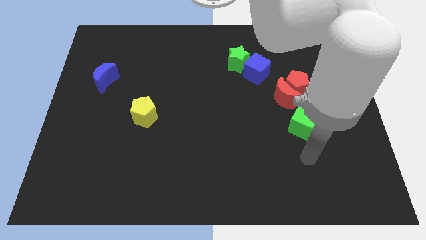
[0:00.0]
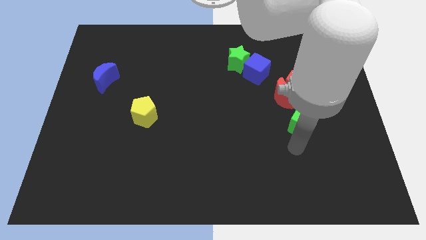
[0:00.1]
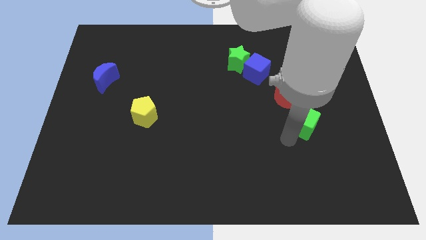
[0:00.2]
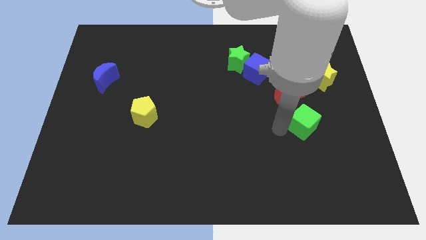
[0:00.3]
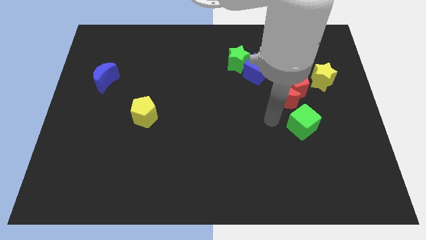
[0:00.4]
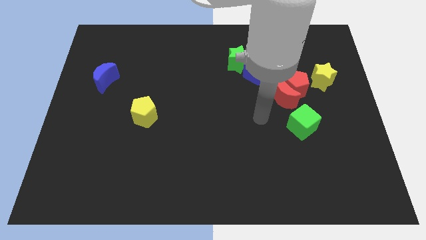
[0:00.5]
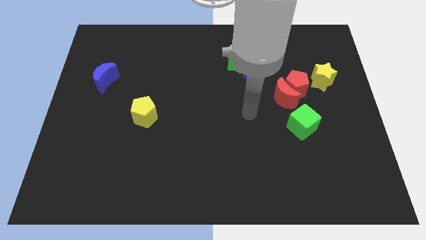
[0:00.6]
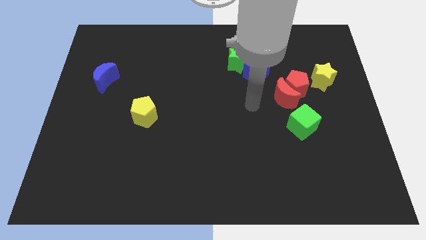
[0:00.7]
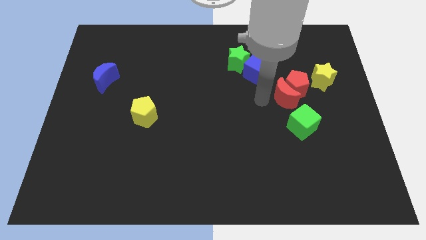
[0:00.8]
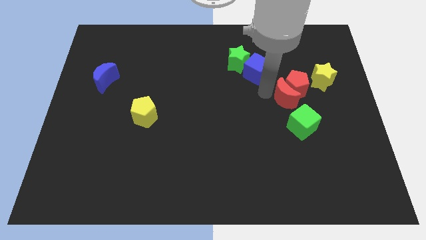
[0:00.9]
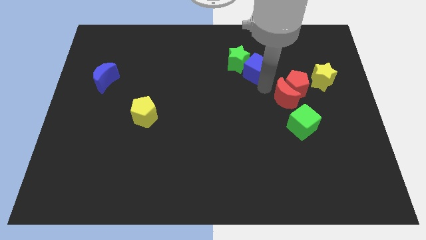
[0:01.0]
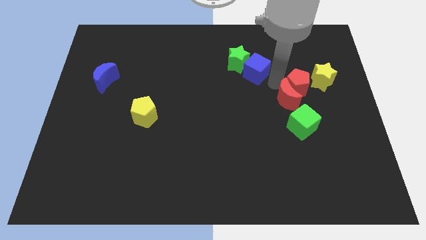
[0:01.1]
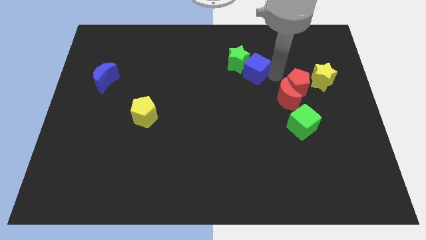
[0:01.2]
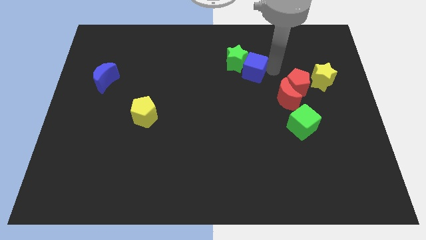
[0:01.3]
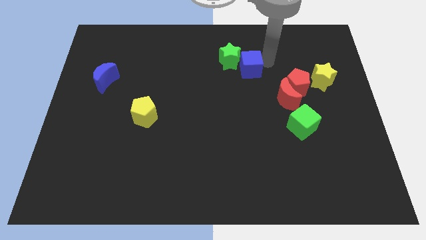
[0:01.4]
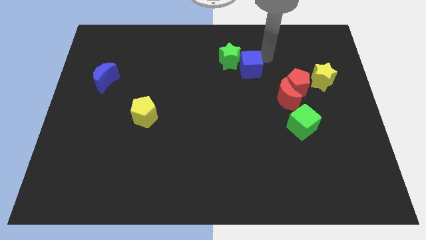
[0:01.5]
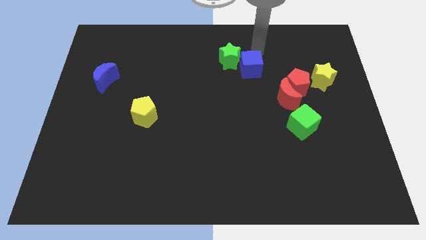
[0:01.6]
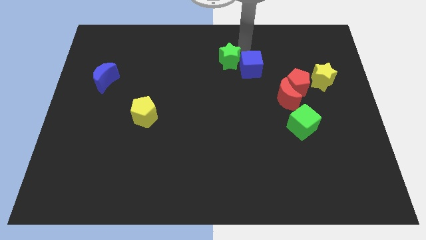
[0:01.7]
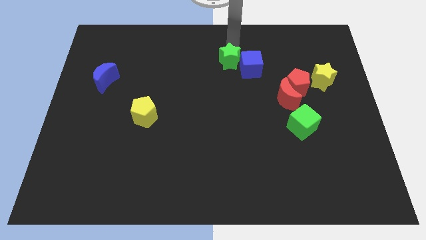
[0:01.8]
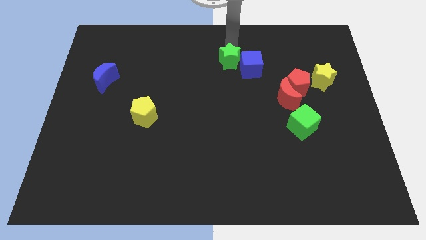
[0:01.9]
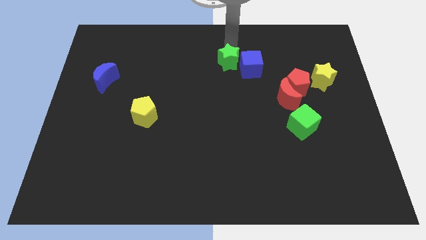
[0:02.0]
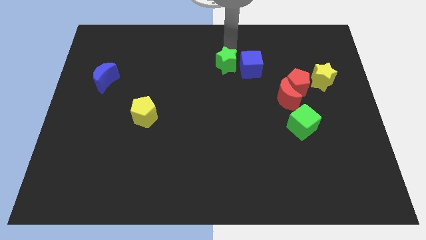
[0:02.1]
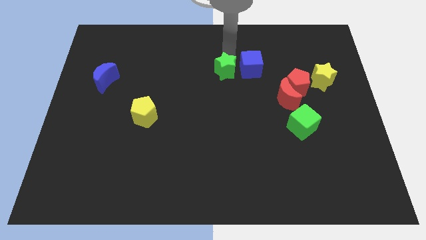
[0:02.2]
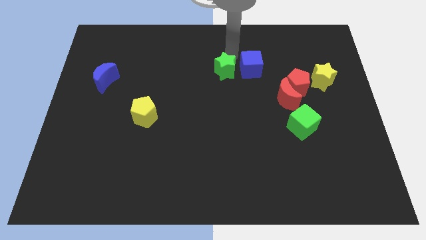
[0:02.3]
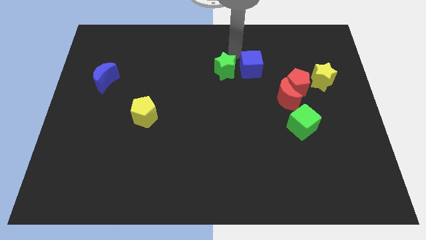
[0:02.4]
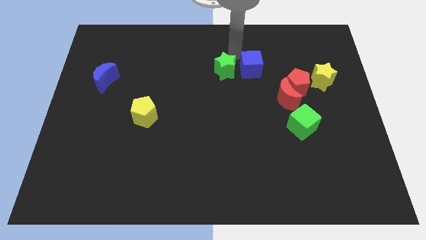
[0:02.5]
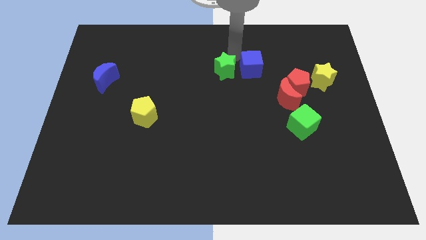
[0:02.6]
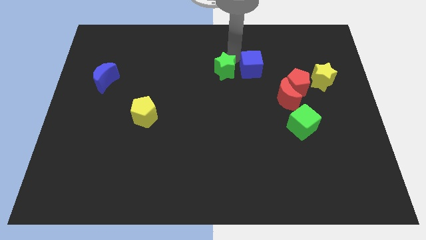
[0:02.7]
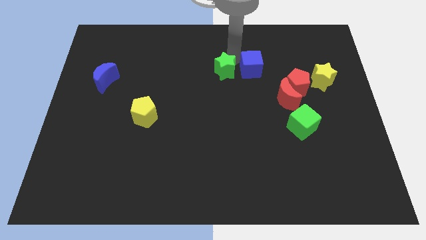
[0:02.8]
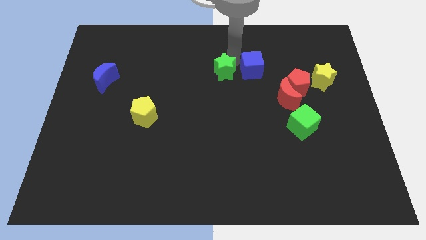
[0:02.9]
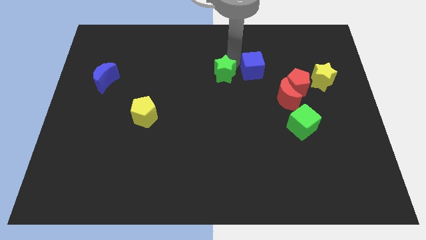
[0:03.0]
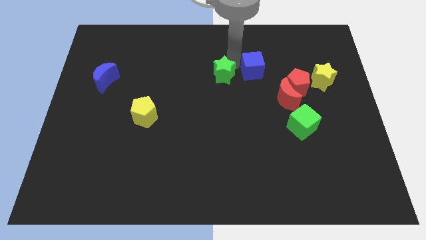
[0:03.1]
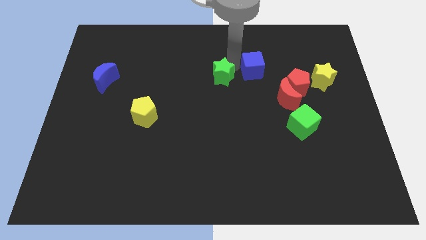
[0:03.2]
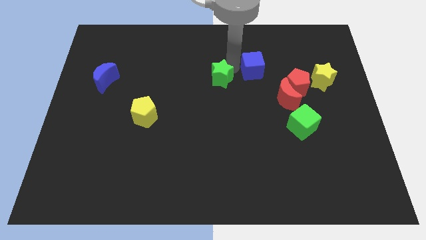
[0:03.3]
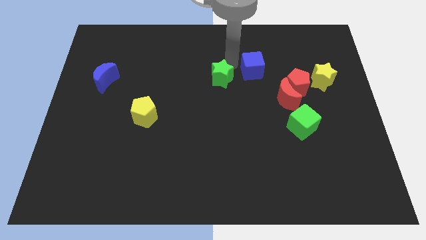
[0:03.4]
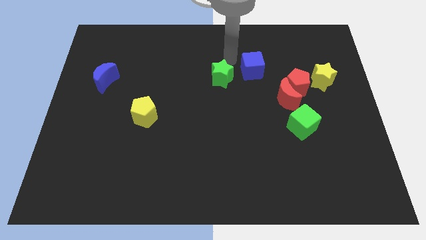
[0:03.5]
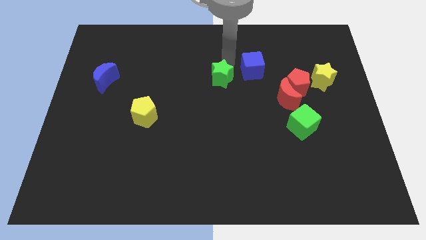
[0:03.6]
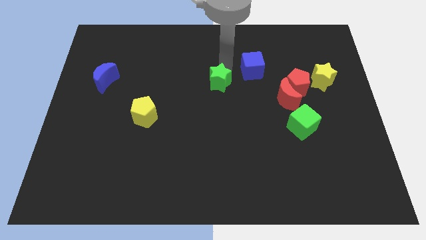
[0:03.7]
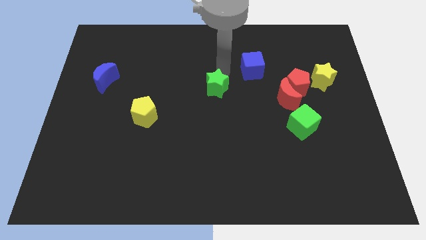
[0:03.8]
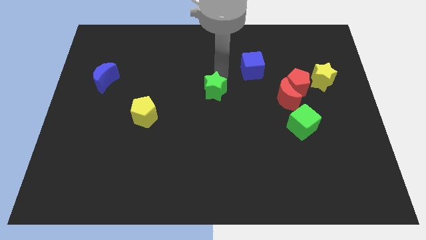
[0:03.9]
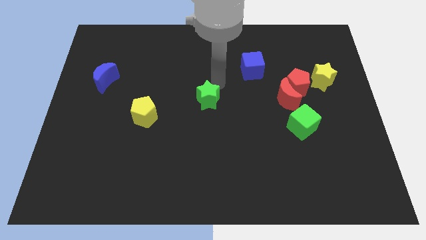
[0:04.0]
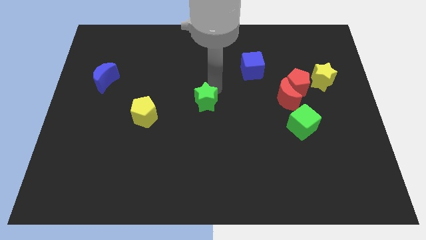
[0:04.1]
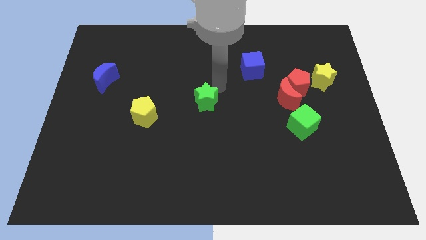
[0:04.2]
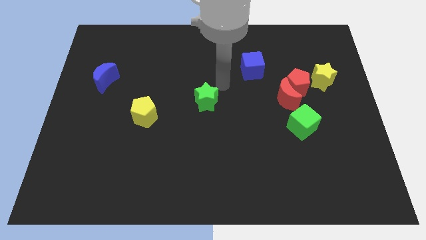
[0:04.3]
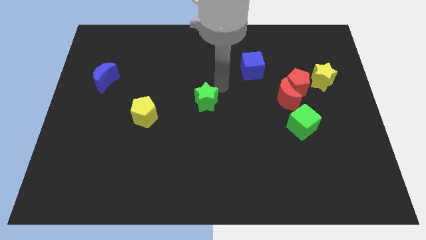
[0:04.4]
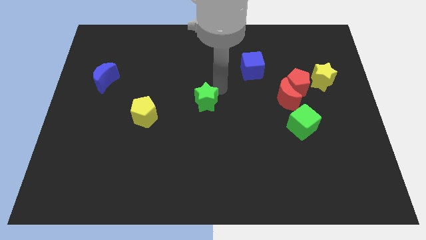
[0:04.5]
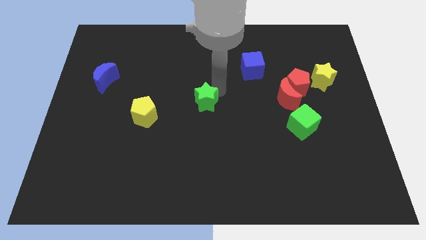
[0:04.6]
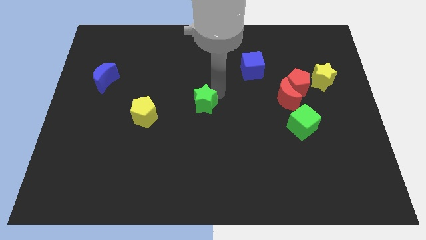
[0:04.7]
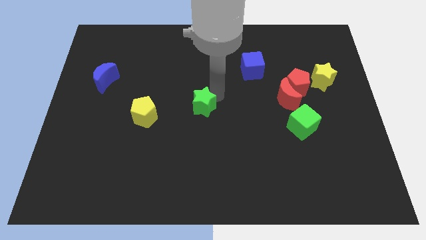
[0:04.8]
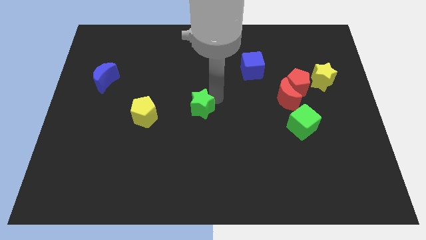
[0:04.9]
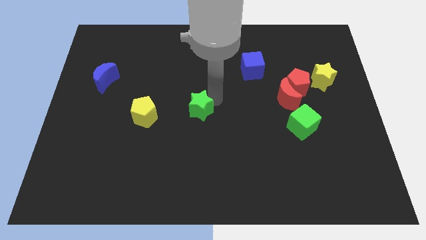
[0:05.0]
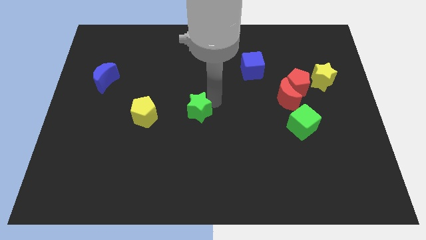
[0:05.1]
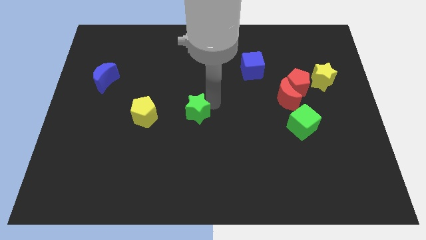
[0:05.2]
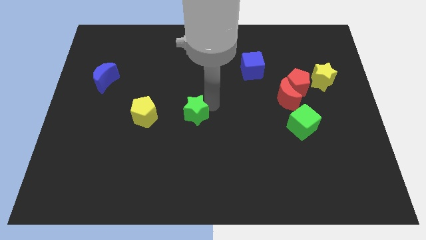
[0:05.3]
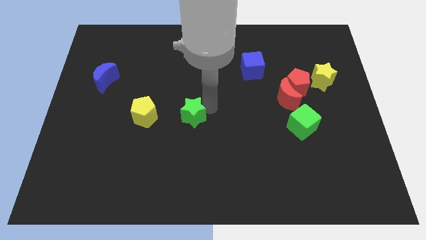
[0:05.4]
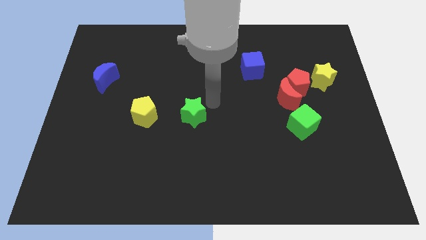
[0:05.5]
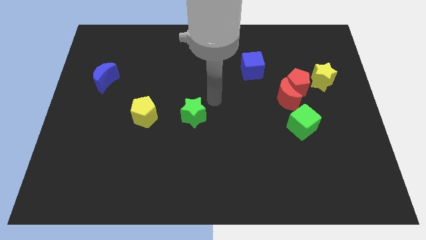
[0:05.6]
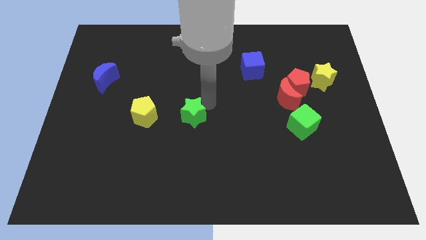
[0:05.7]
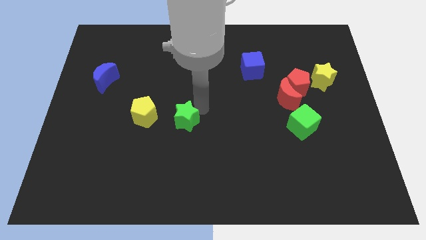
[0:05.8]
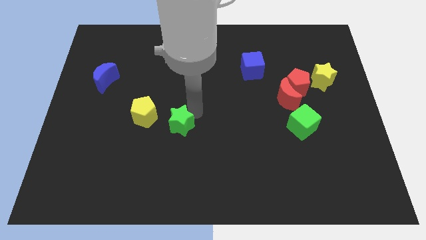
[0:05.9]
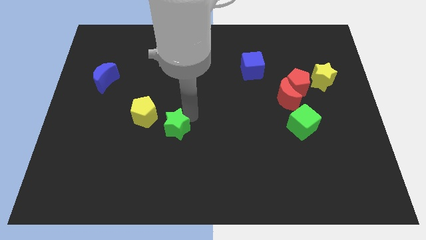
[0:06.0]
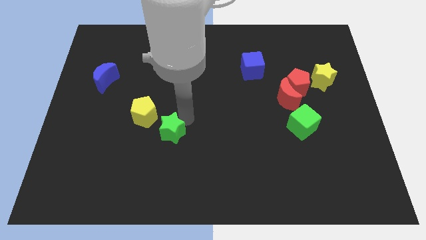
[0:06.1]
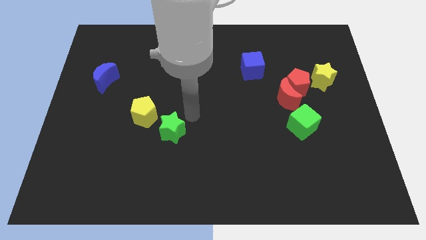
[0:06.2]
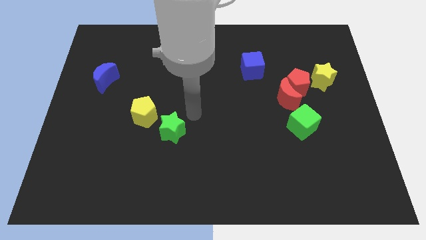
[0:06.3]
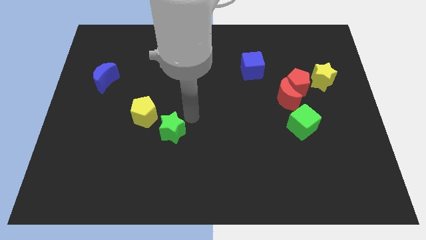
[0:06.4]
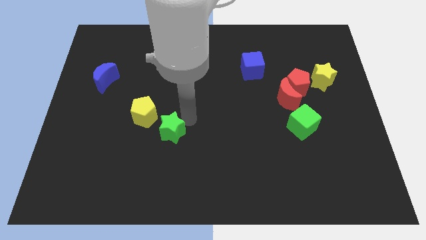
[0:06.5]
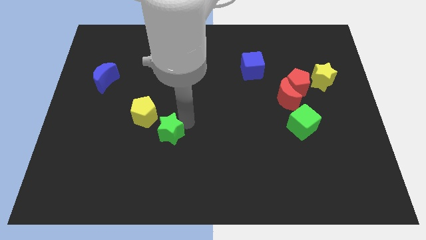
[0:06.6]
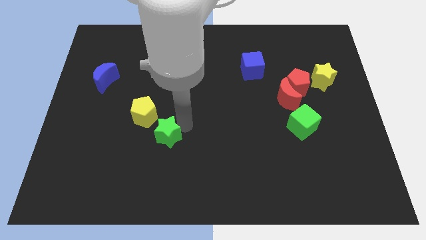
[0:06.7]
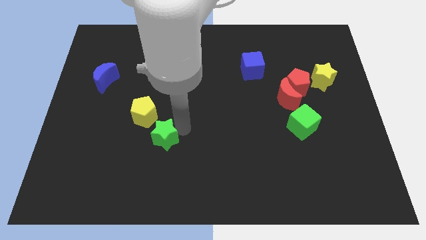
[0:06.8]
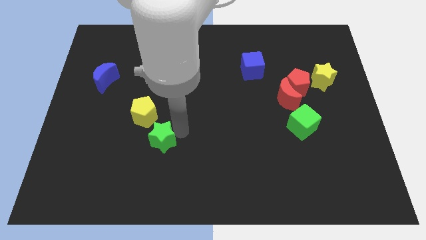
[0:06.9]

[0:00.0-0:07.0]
push the green star below the yellow pentagon
